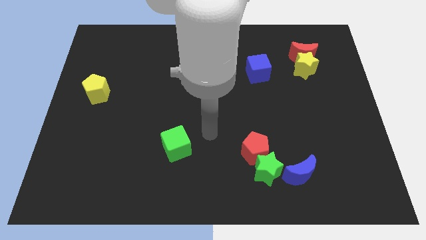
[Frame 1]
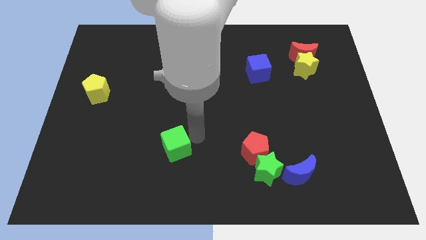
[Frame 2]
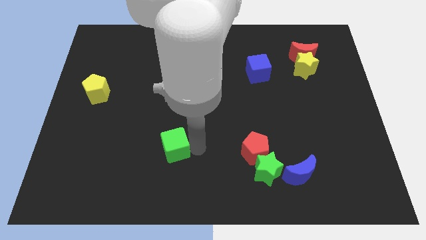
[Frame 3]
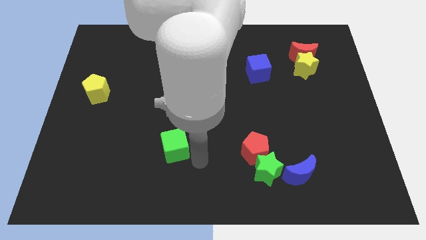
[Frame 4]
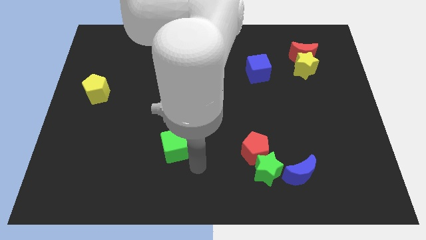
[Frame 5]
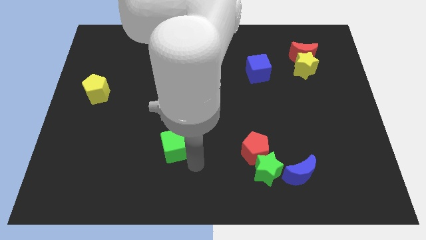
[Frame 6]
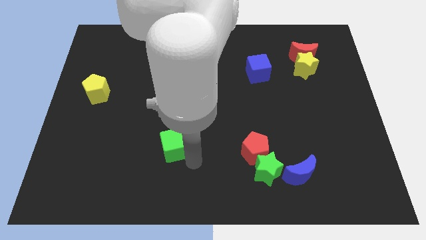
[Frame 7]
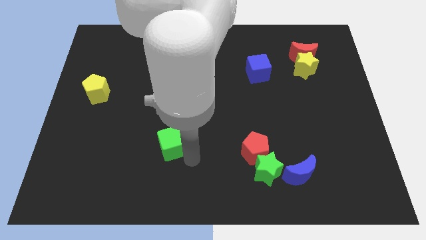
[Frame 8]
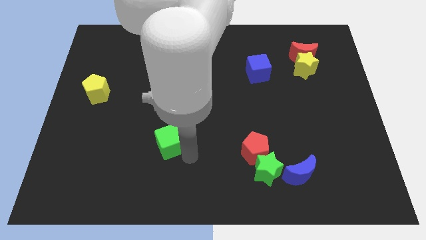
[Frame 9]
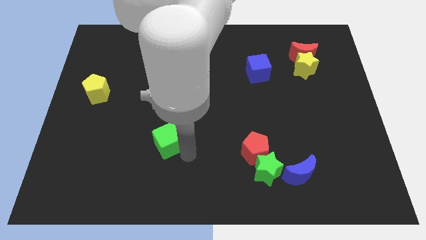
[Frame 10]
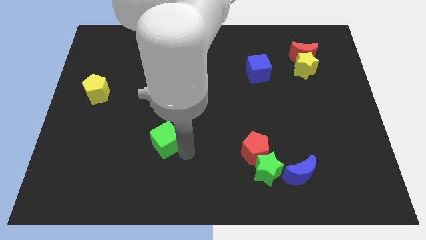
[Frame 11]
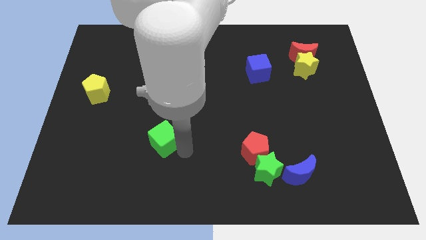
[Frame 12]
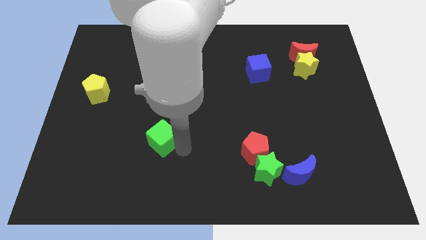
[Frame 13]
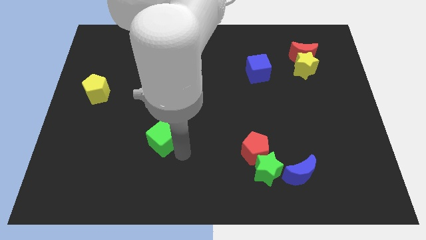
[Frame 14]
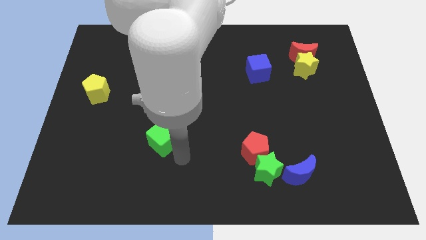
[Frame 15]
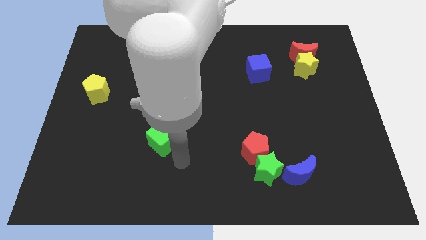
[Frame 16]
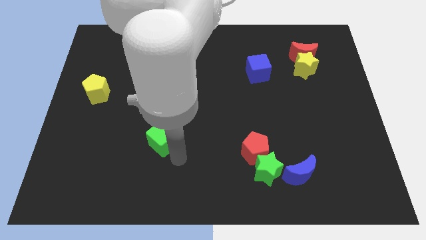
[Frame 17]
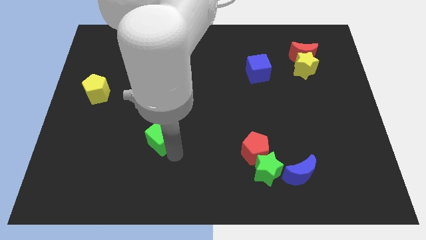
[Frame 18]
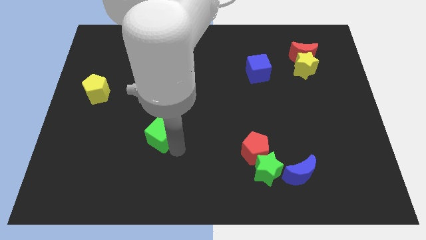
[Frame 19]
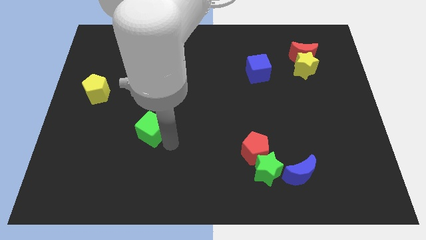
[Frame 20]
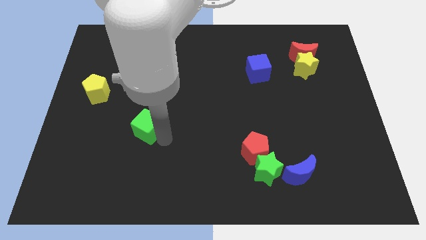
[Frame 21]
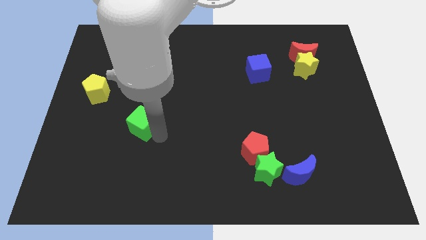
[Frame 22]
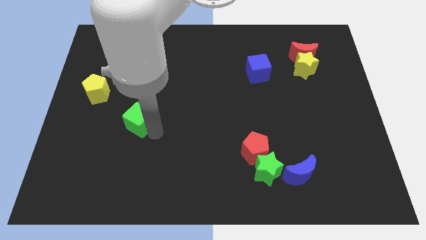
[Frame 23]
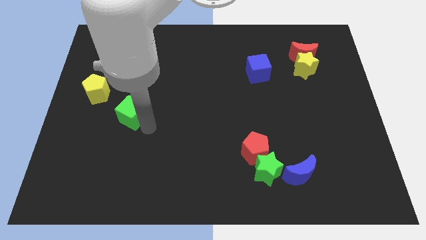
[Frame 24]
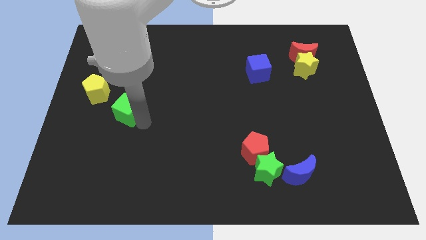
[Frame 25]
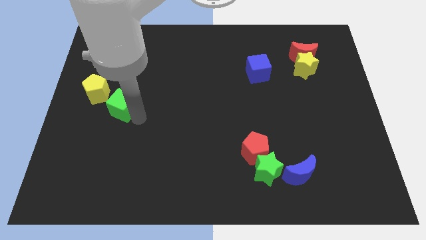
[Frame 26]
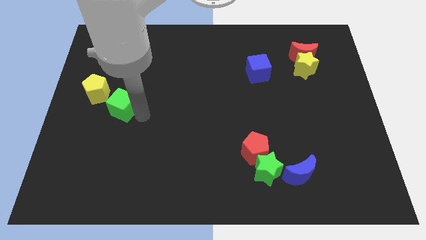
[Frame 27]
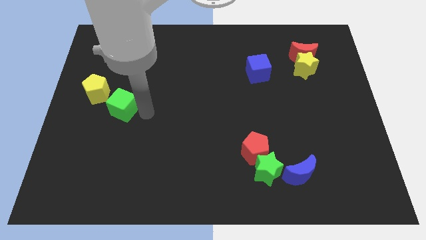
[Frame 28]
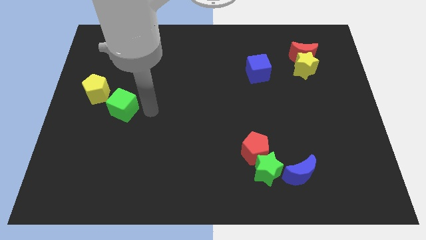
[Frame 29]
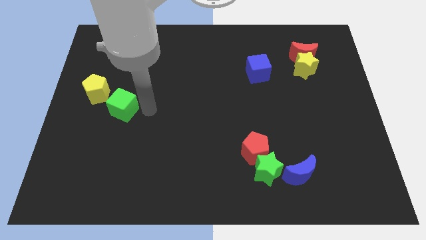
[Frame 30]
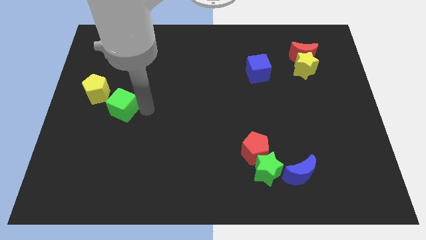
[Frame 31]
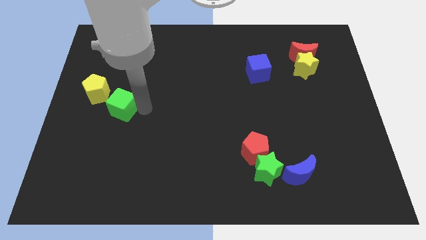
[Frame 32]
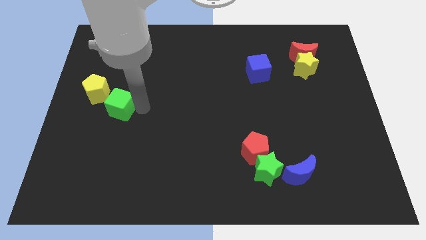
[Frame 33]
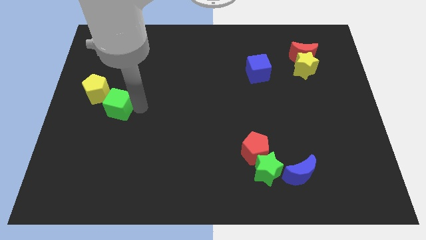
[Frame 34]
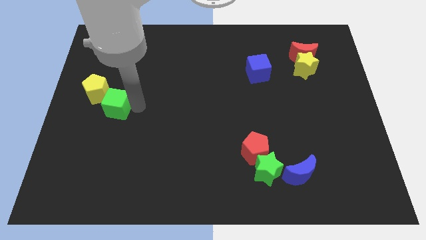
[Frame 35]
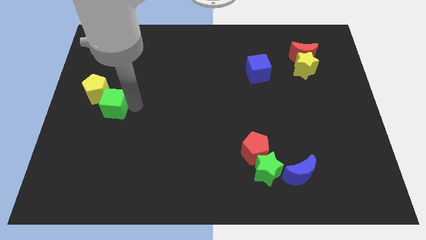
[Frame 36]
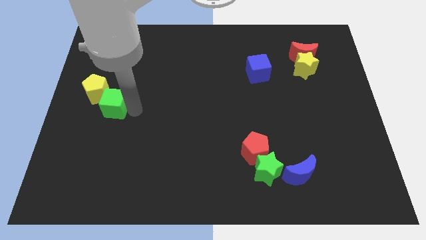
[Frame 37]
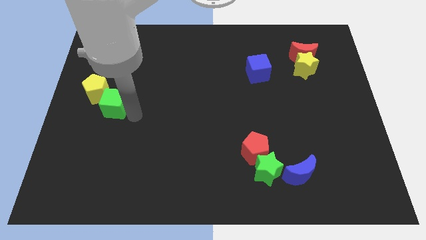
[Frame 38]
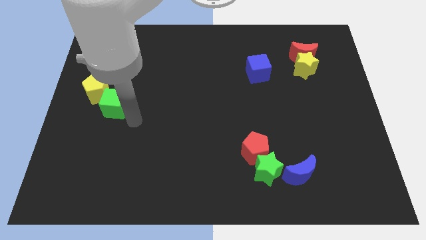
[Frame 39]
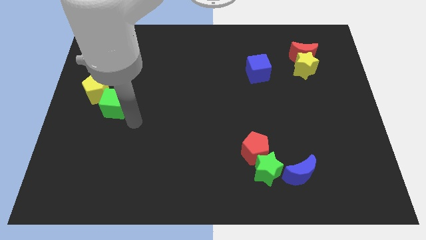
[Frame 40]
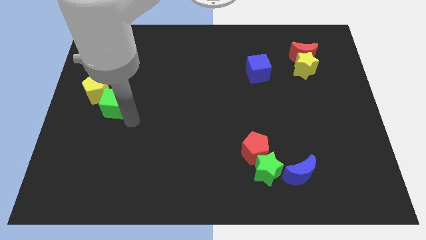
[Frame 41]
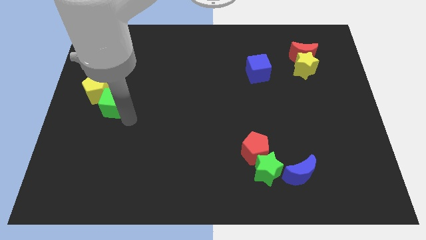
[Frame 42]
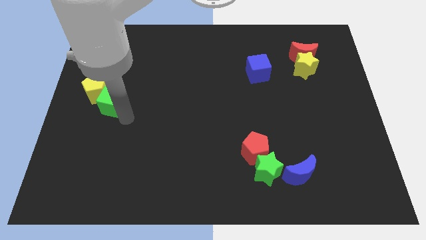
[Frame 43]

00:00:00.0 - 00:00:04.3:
push the green cube close to the yellow pentagon

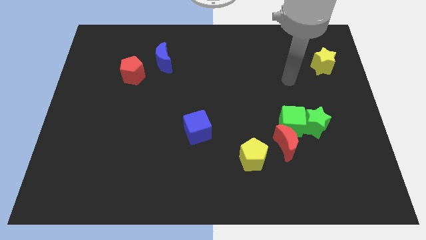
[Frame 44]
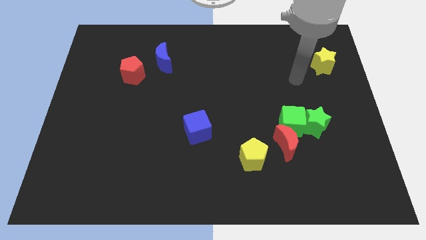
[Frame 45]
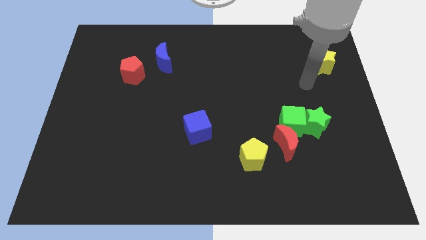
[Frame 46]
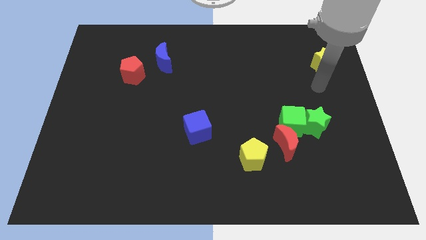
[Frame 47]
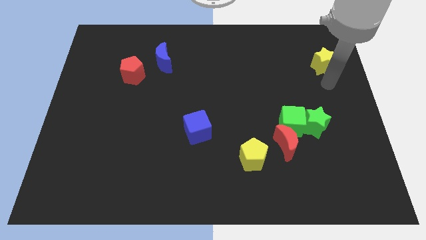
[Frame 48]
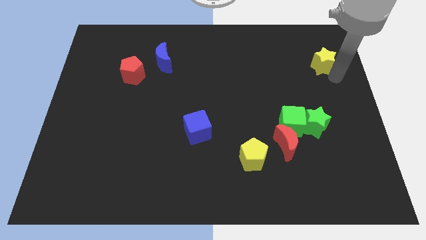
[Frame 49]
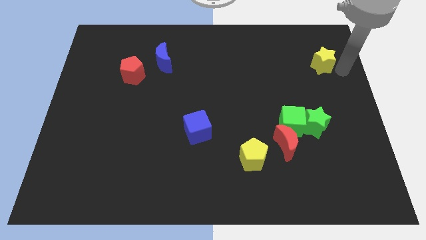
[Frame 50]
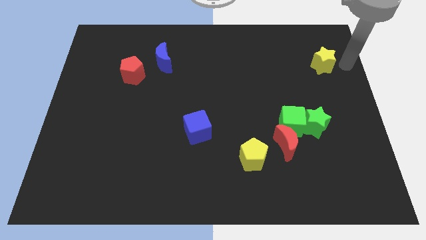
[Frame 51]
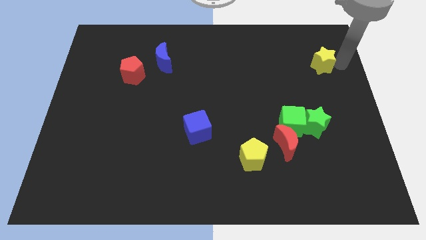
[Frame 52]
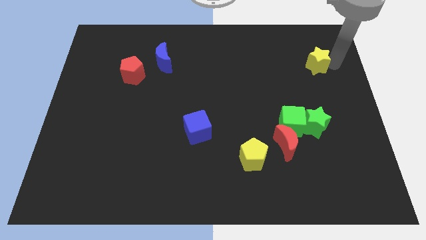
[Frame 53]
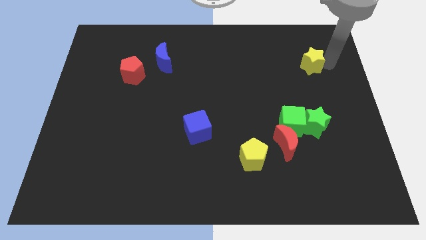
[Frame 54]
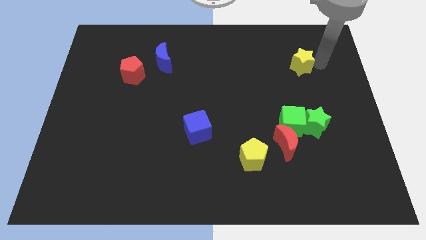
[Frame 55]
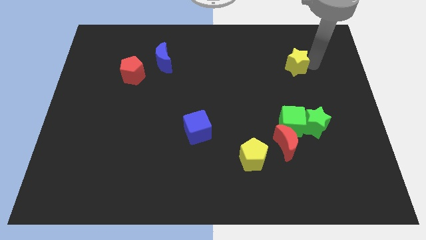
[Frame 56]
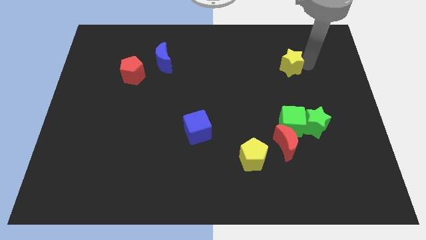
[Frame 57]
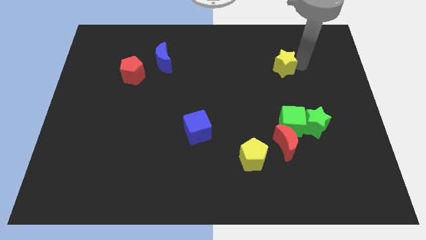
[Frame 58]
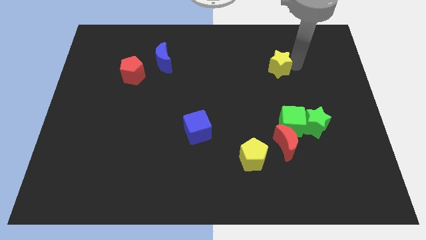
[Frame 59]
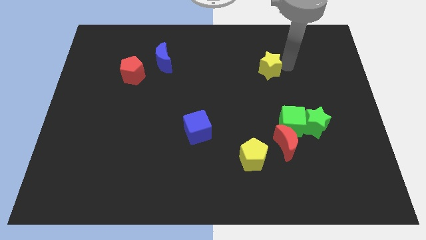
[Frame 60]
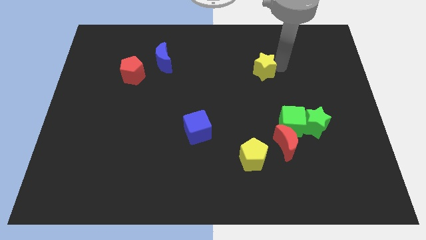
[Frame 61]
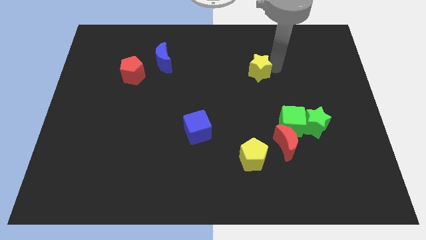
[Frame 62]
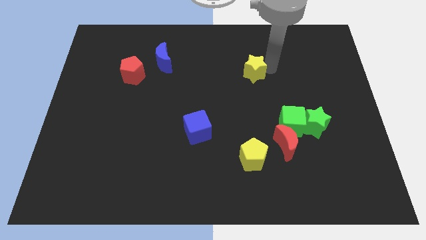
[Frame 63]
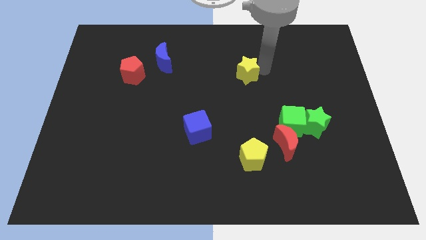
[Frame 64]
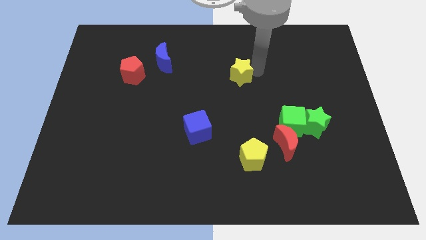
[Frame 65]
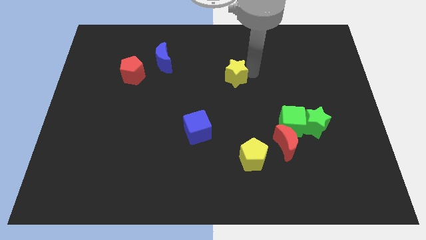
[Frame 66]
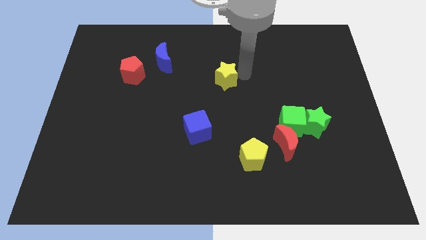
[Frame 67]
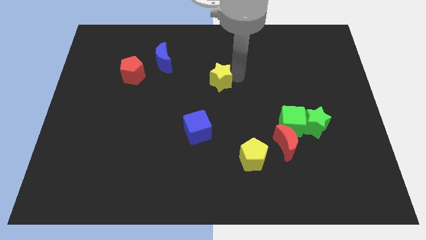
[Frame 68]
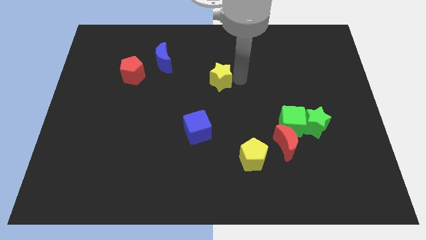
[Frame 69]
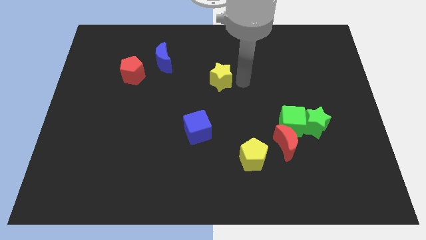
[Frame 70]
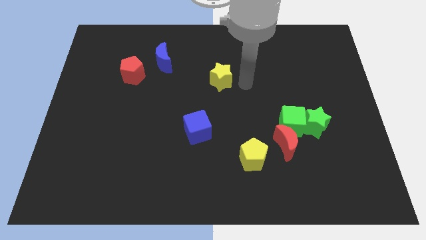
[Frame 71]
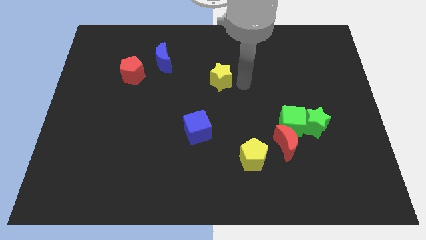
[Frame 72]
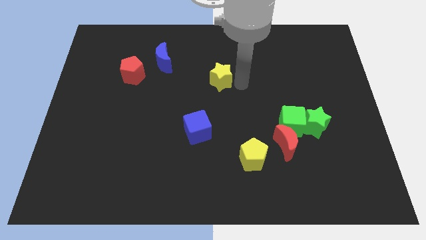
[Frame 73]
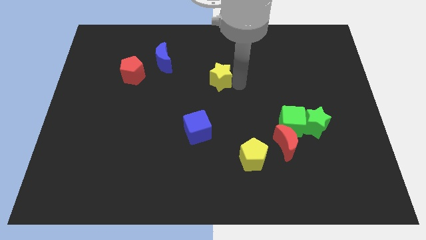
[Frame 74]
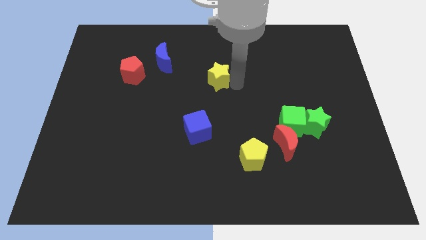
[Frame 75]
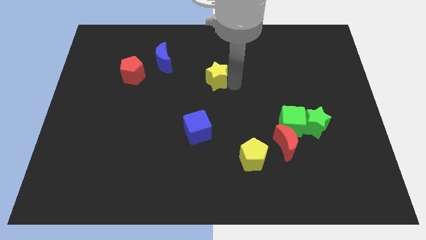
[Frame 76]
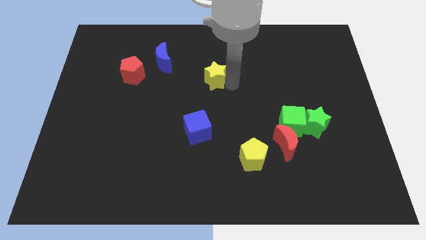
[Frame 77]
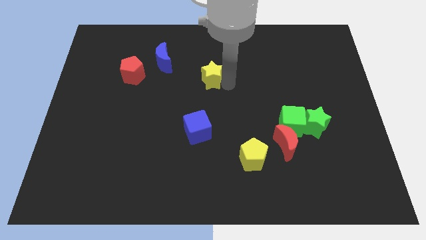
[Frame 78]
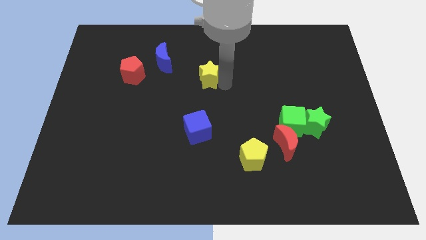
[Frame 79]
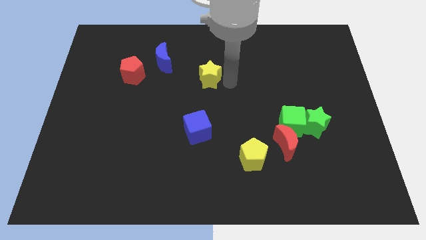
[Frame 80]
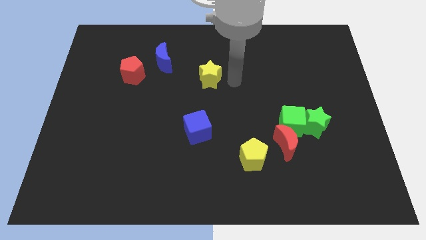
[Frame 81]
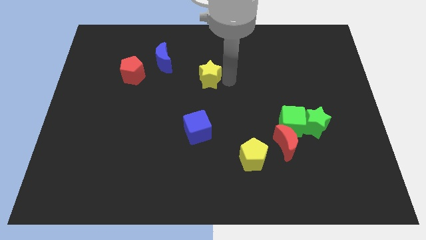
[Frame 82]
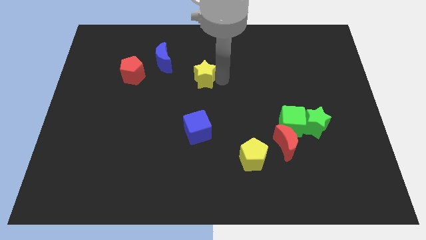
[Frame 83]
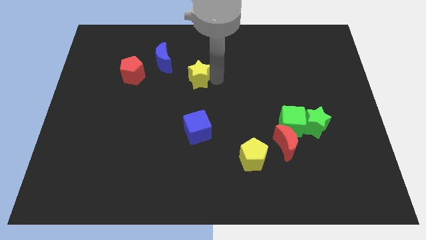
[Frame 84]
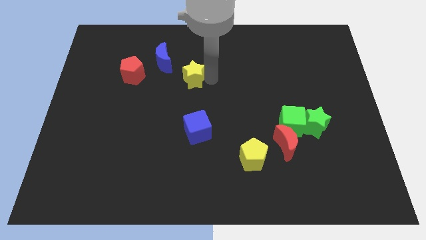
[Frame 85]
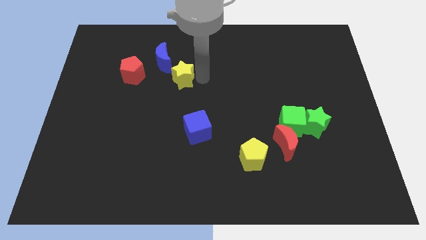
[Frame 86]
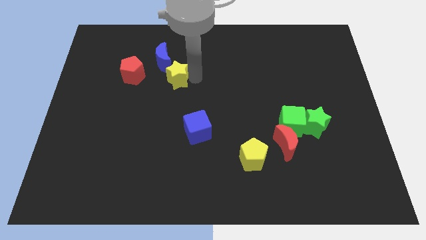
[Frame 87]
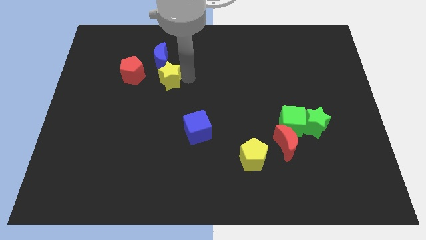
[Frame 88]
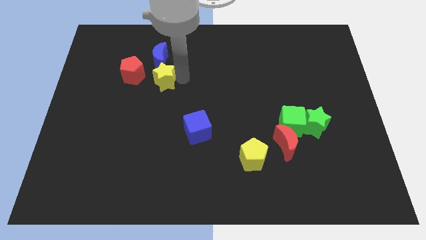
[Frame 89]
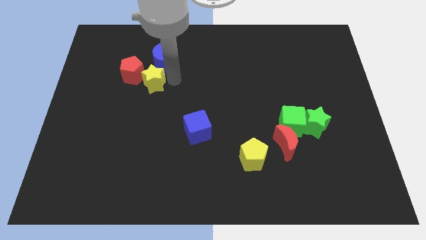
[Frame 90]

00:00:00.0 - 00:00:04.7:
put the yellow star to the red pentagon
